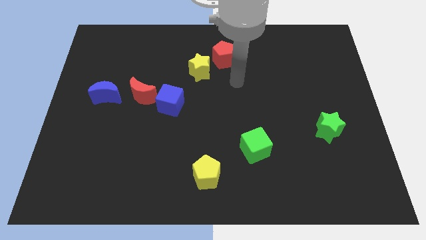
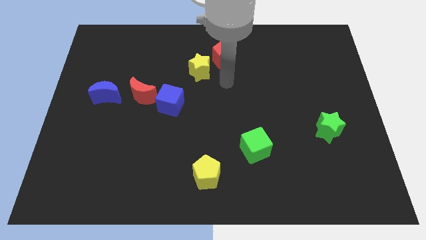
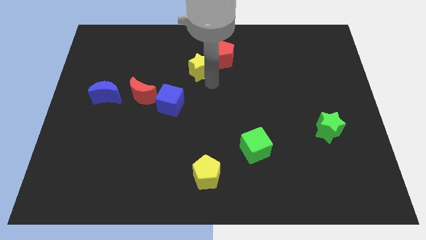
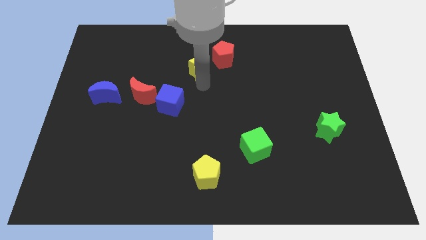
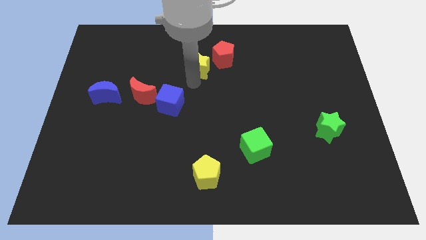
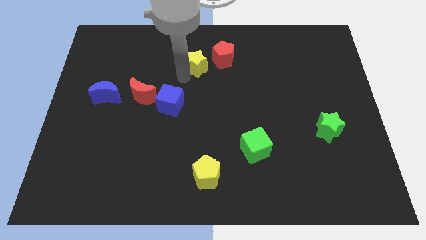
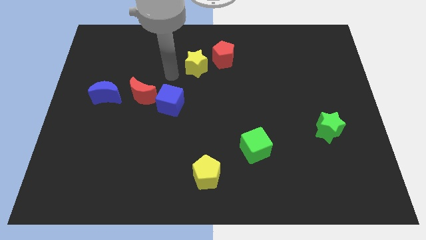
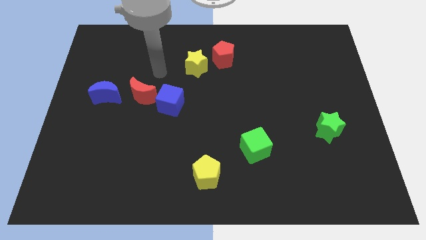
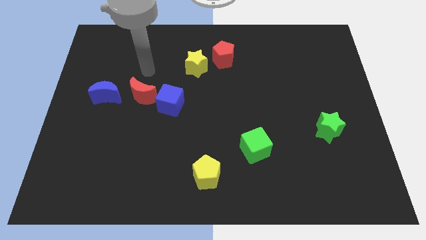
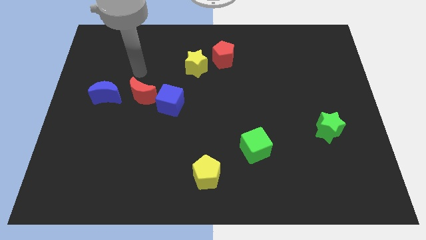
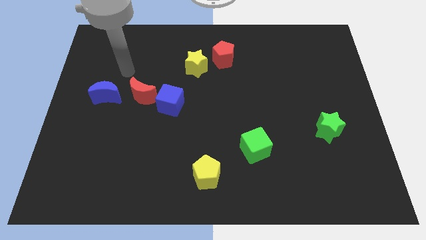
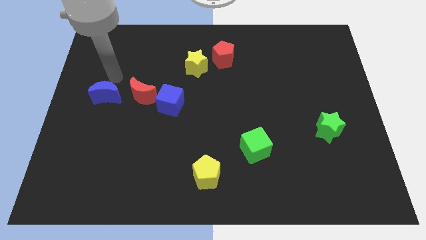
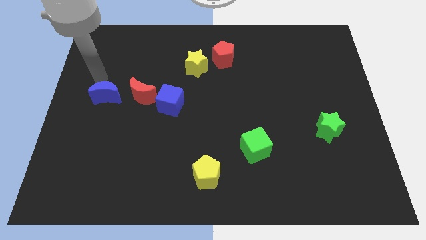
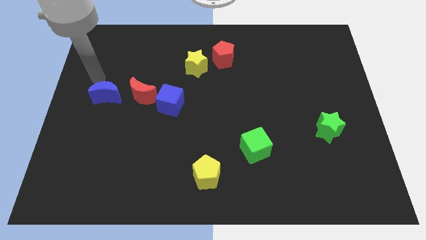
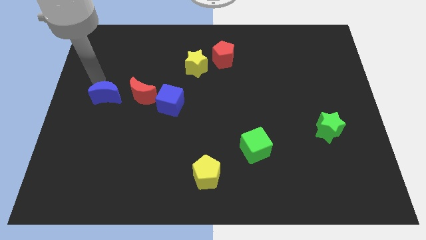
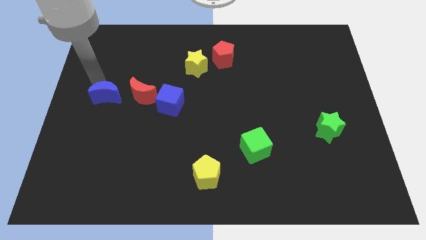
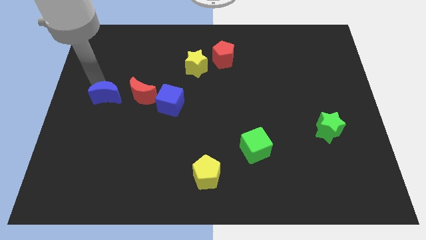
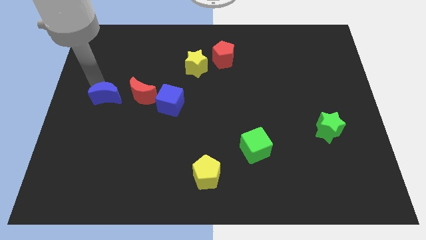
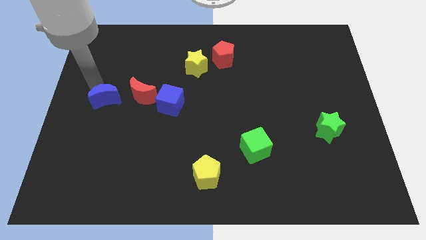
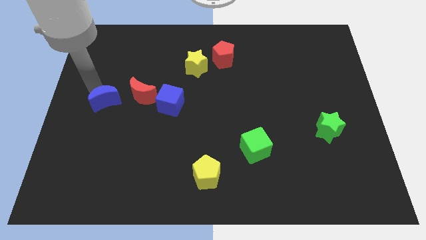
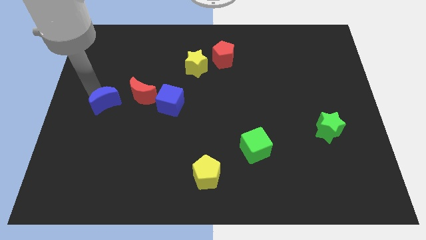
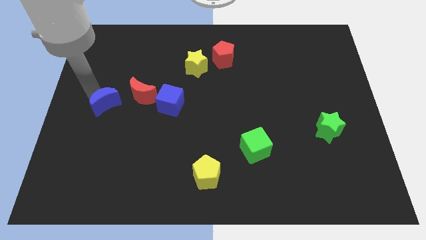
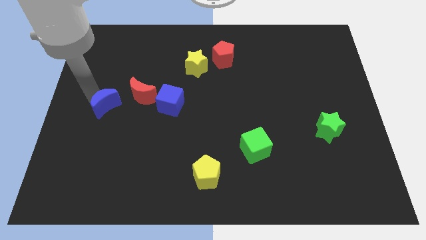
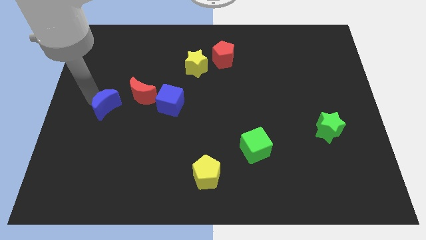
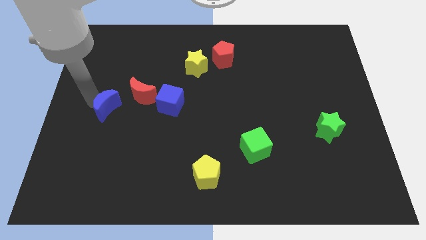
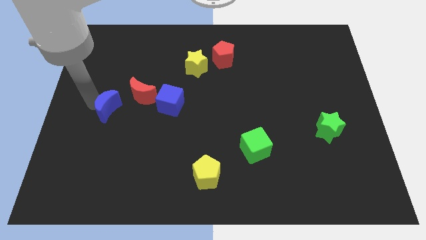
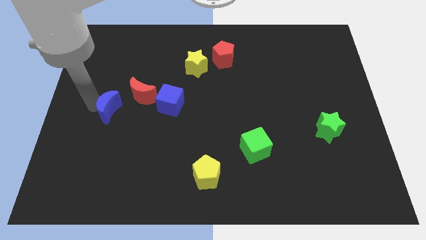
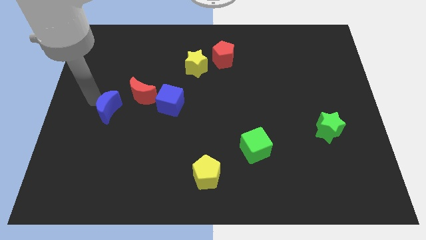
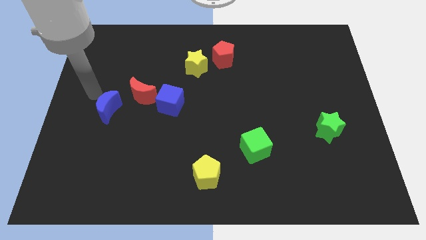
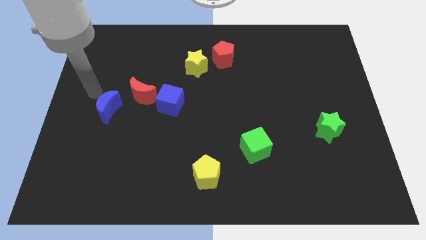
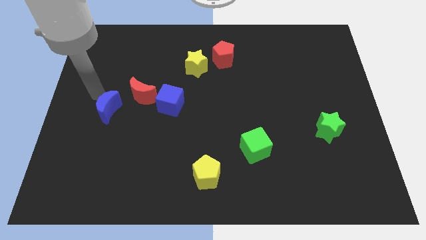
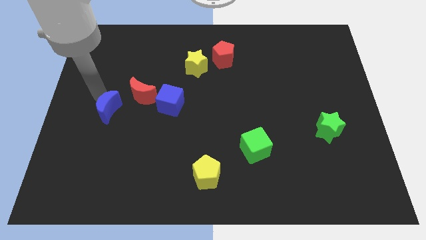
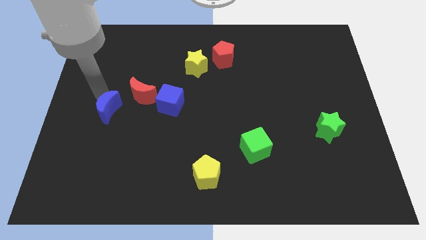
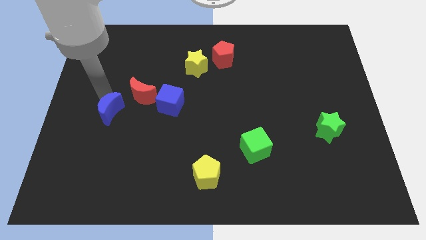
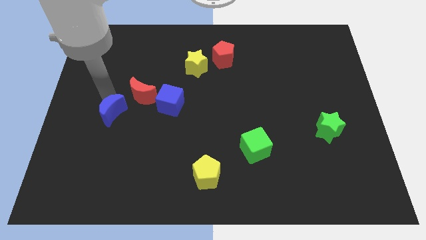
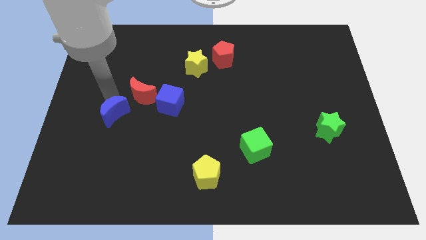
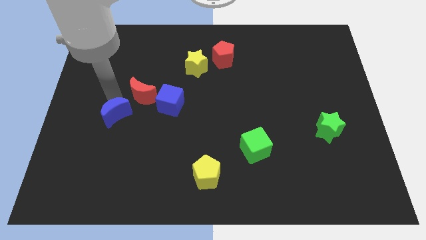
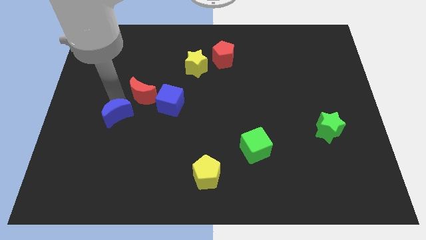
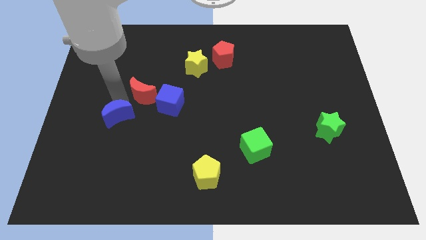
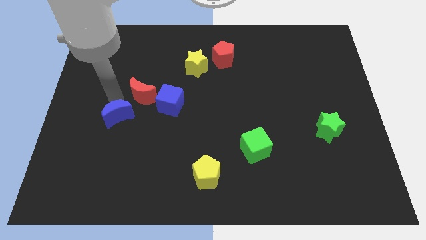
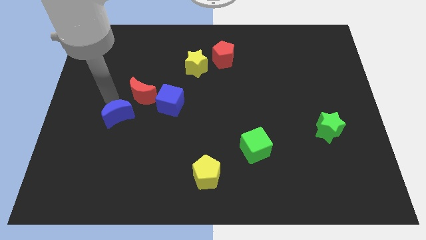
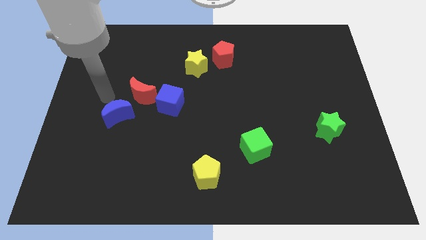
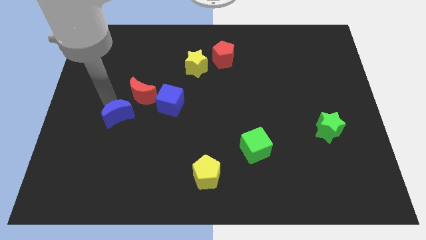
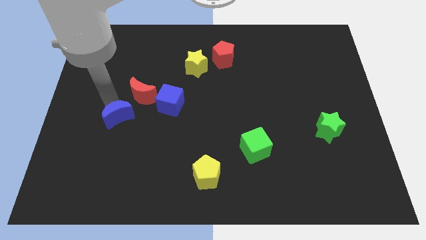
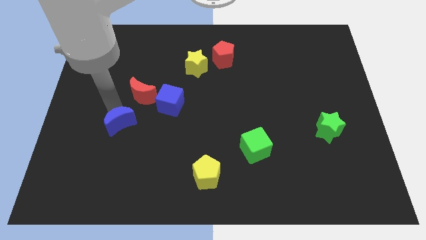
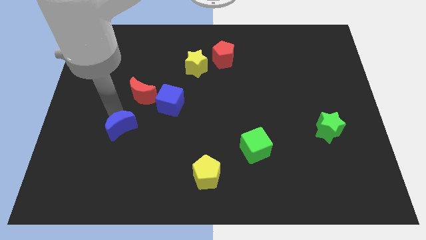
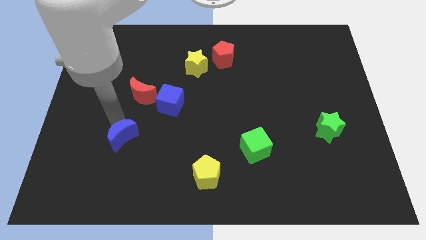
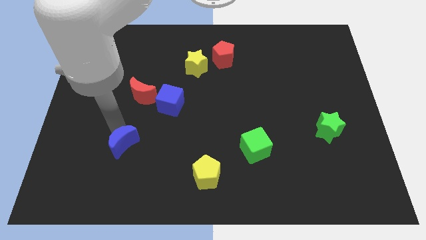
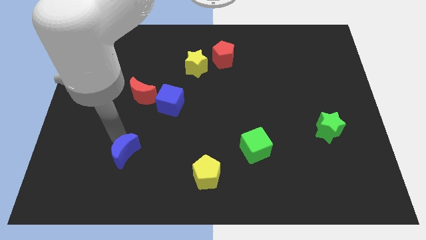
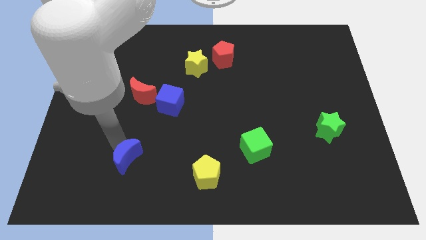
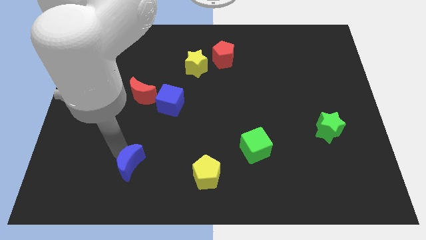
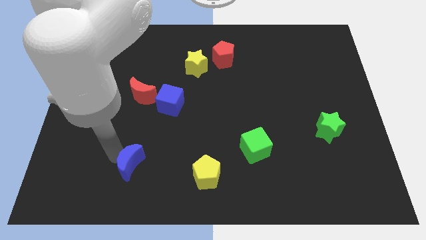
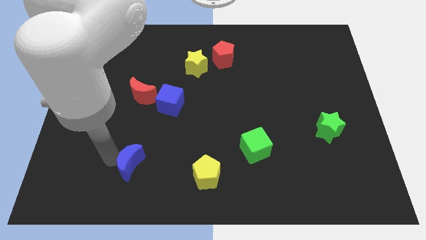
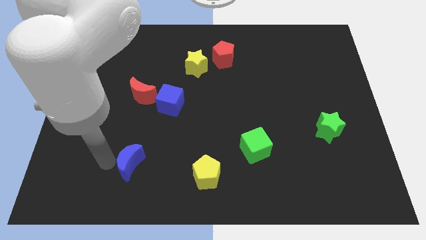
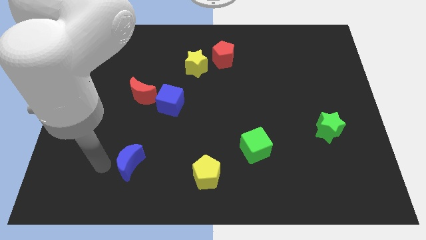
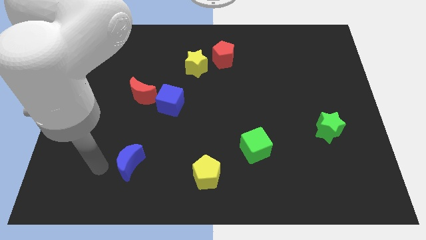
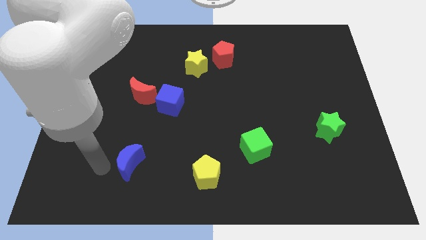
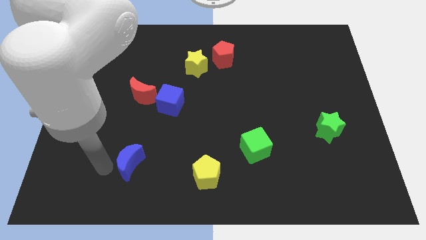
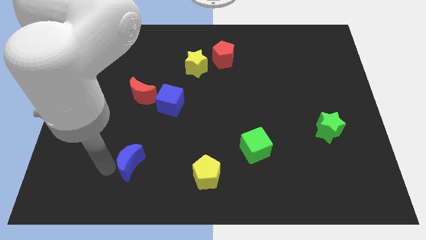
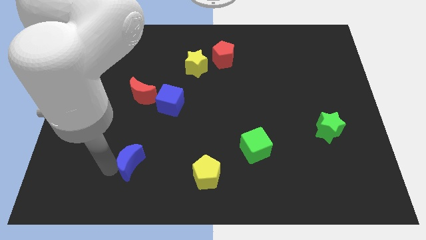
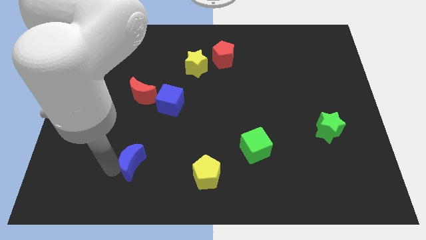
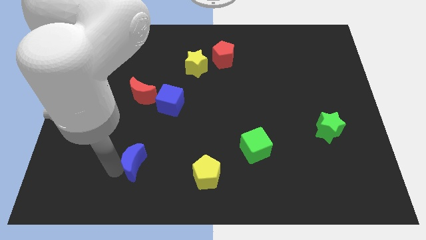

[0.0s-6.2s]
move the blue moon left of the yellow pentagon

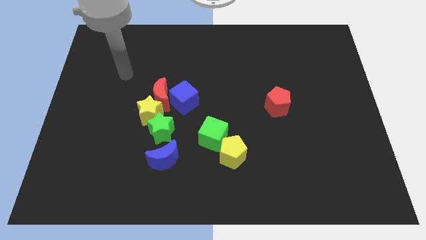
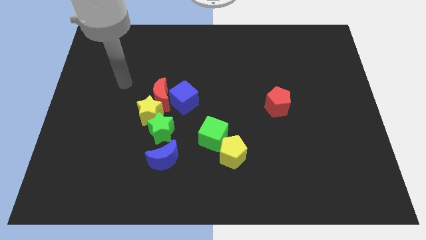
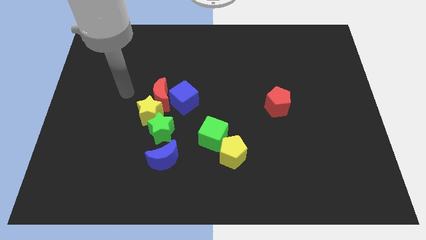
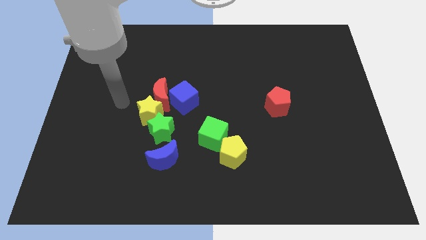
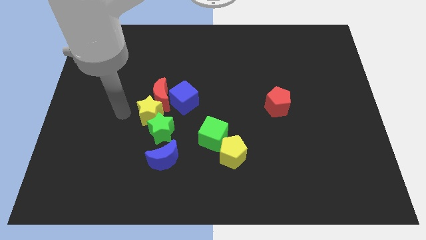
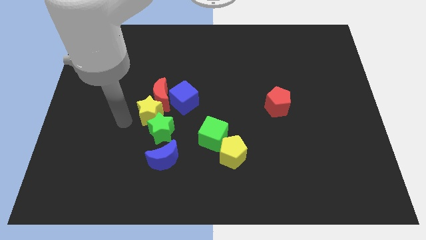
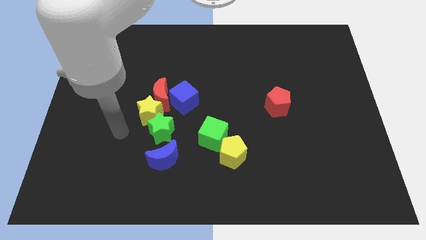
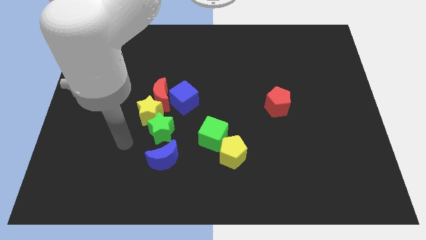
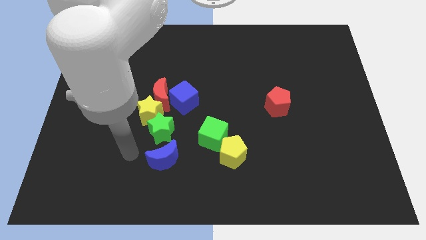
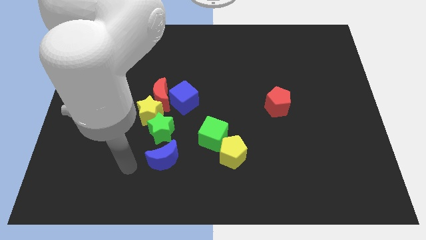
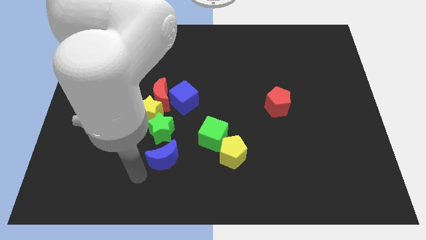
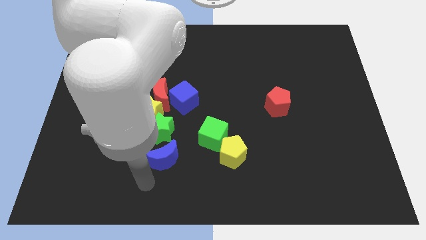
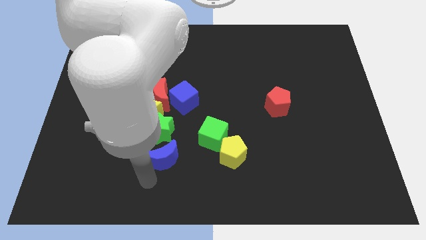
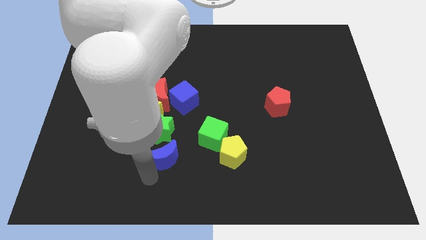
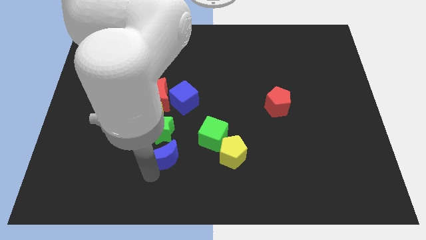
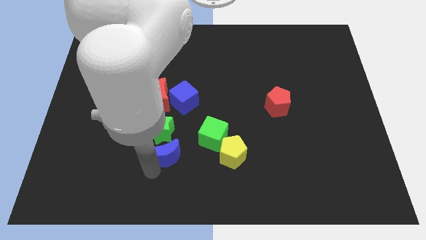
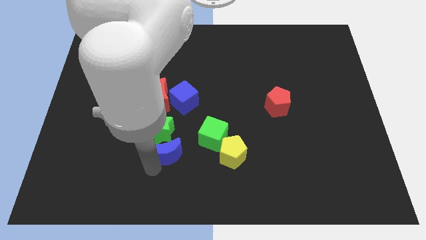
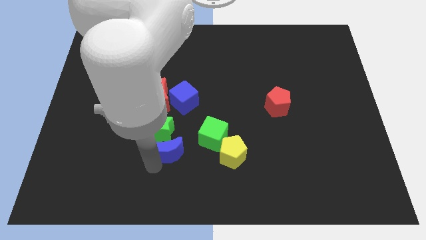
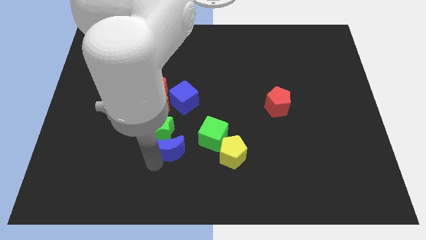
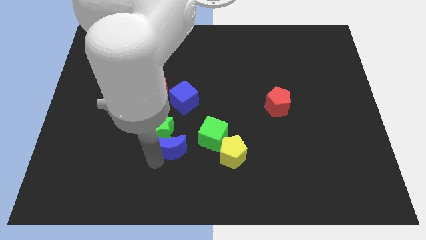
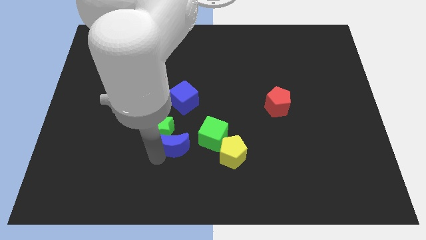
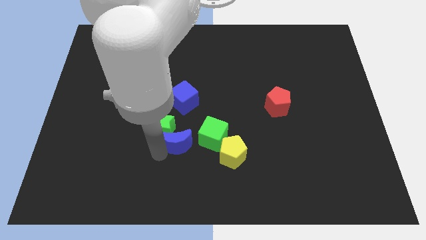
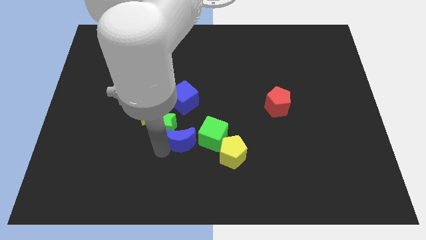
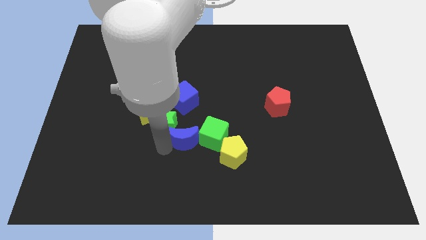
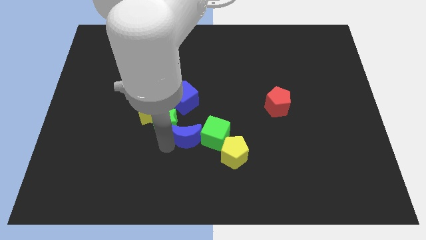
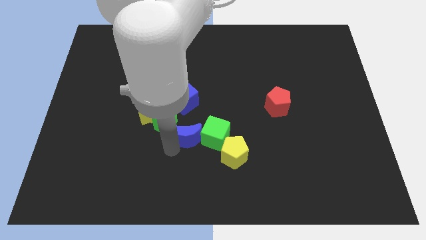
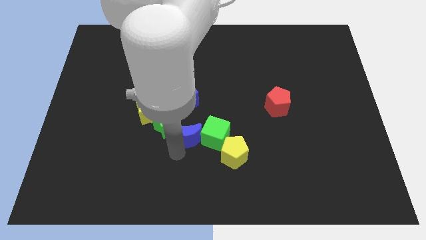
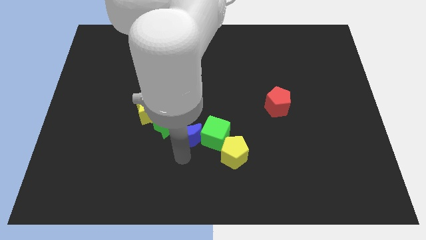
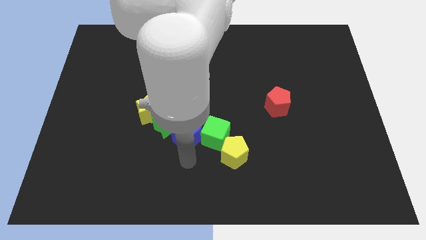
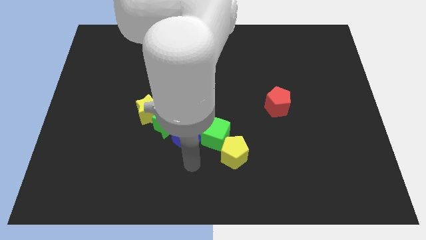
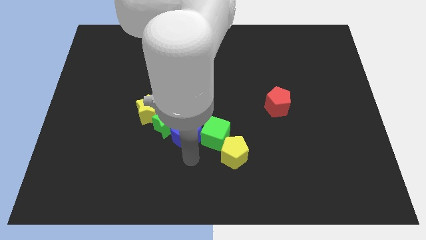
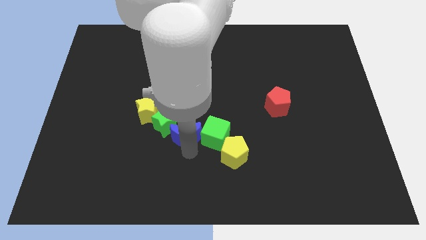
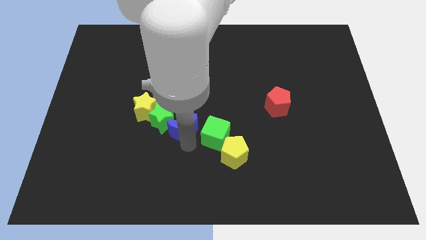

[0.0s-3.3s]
push the blue moon diagonally down and to the right of the red moon
